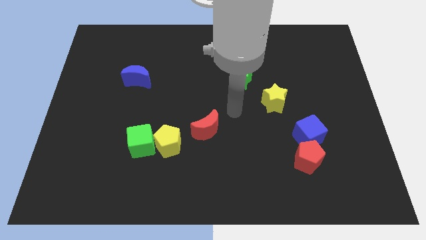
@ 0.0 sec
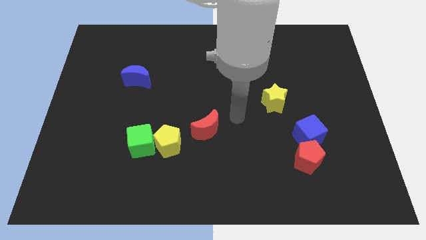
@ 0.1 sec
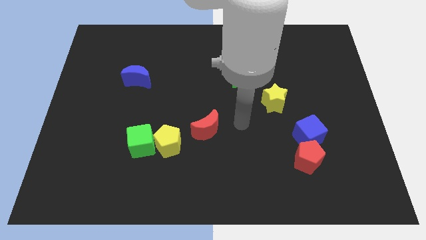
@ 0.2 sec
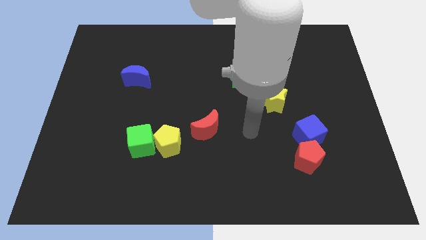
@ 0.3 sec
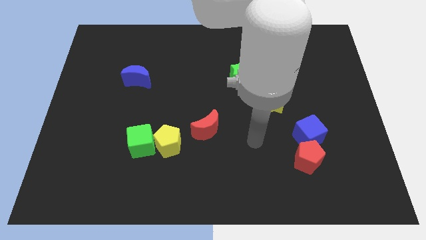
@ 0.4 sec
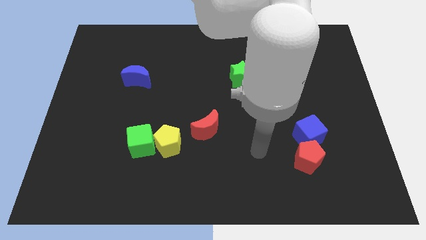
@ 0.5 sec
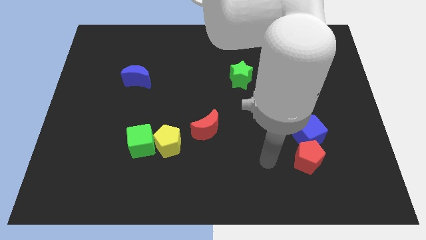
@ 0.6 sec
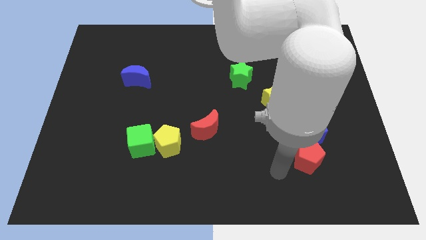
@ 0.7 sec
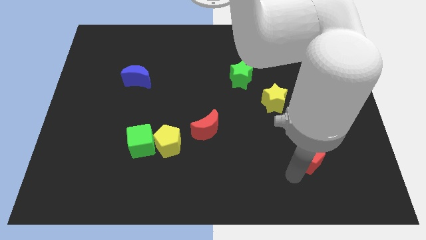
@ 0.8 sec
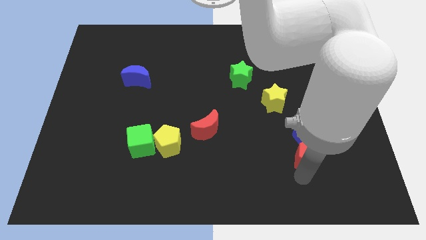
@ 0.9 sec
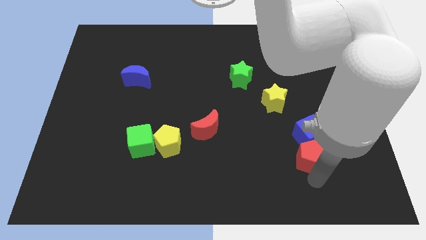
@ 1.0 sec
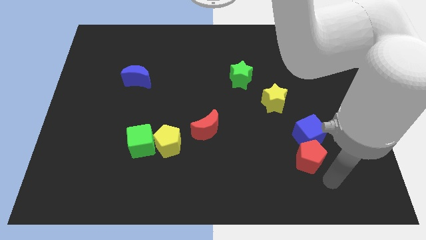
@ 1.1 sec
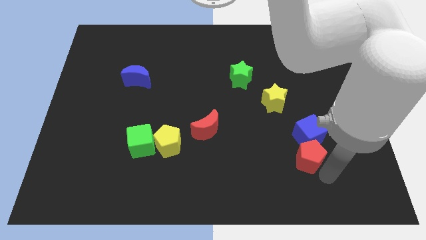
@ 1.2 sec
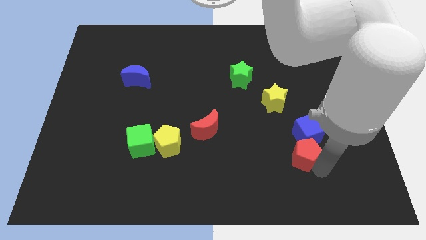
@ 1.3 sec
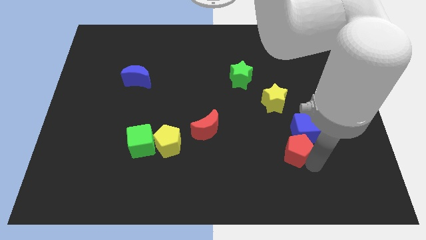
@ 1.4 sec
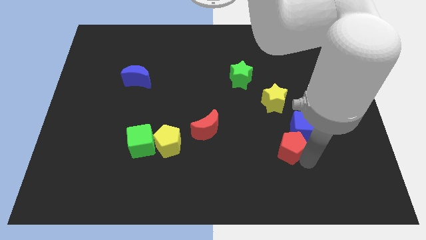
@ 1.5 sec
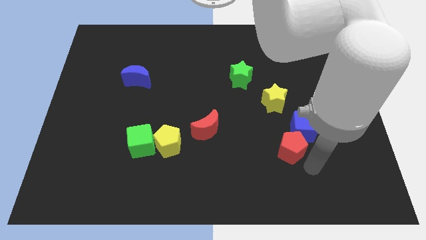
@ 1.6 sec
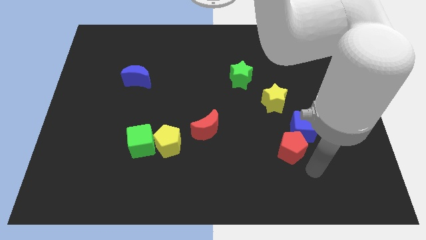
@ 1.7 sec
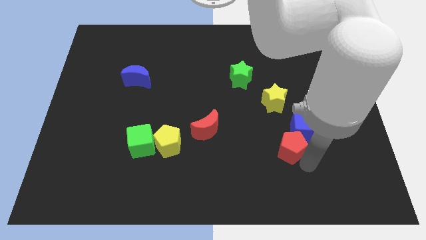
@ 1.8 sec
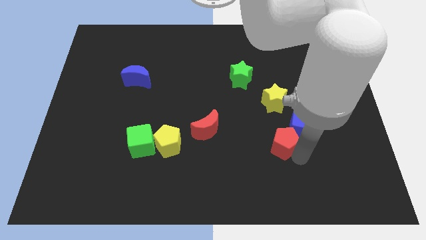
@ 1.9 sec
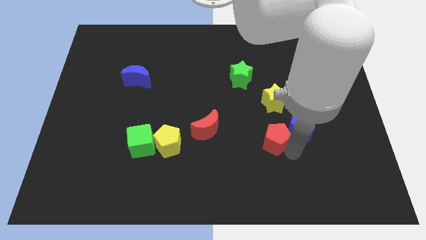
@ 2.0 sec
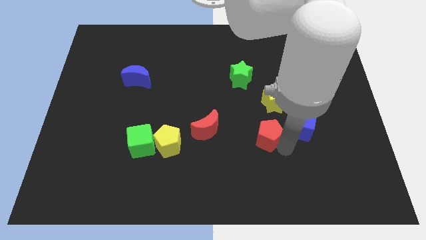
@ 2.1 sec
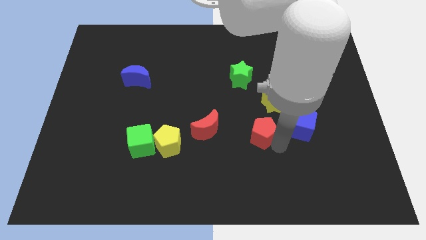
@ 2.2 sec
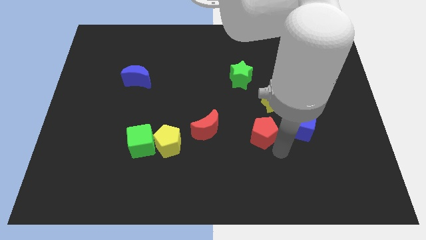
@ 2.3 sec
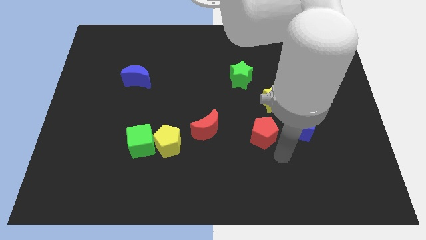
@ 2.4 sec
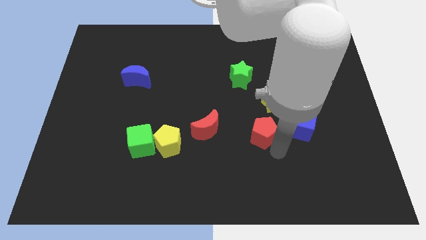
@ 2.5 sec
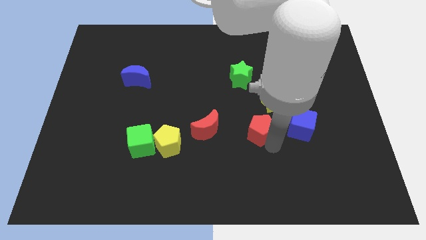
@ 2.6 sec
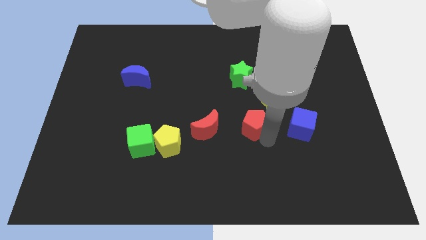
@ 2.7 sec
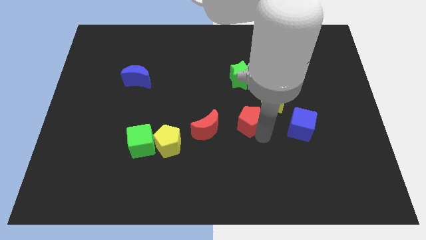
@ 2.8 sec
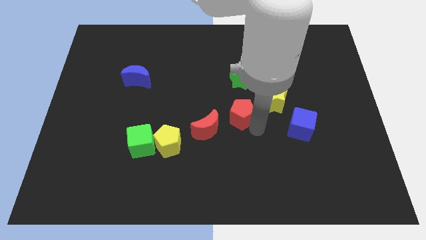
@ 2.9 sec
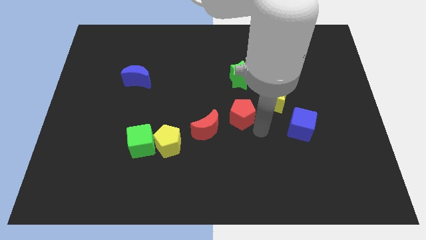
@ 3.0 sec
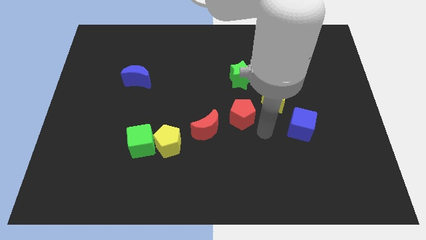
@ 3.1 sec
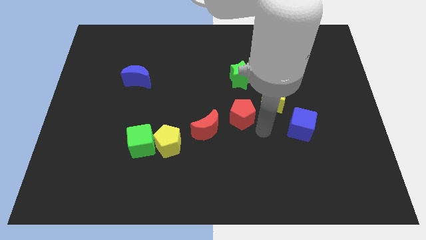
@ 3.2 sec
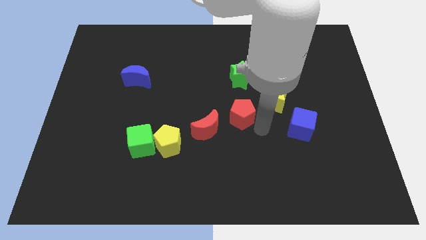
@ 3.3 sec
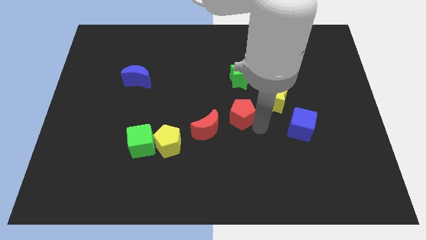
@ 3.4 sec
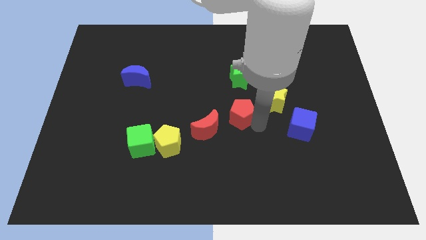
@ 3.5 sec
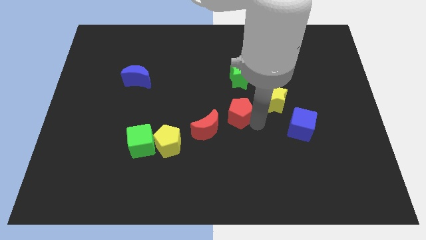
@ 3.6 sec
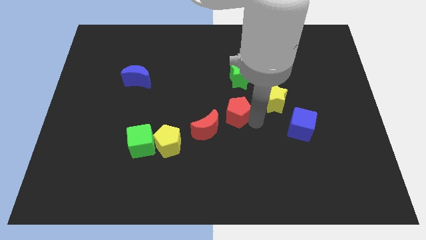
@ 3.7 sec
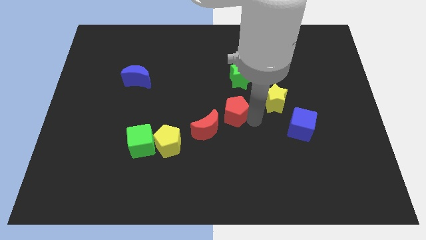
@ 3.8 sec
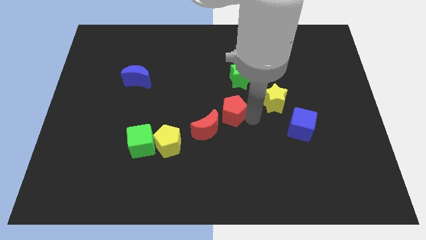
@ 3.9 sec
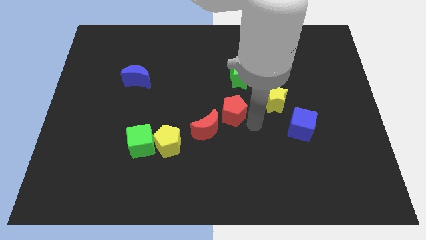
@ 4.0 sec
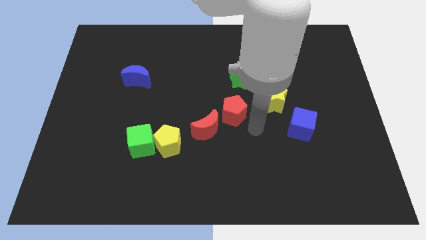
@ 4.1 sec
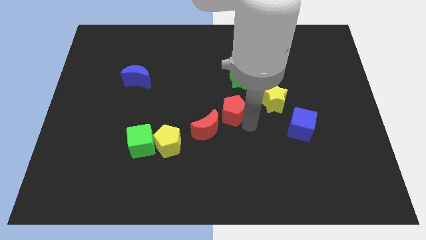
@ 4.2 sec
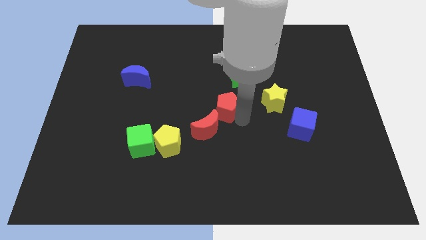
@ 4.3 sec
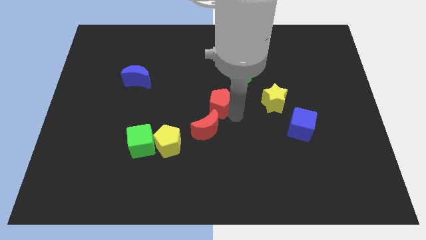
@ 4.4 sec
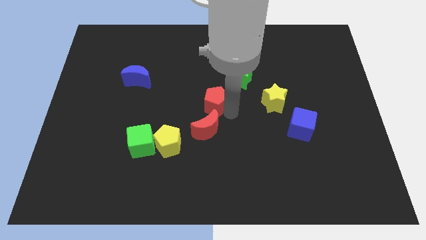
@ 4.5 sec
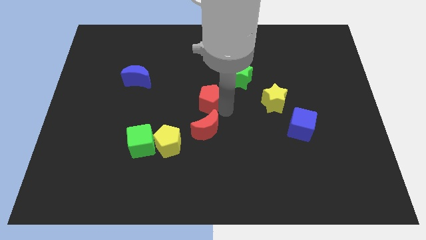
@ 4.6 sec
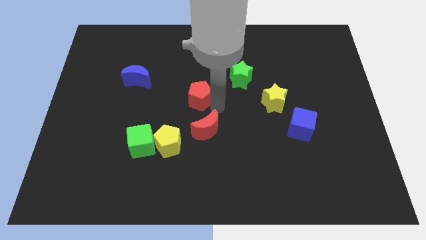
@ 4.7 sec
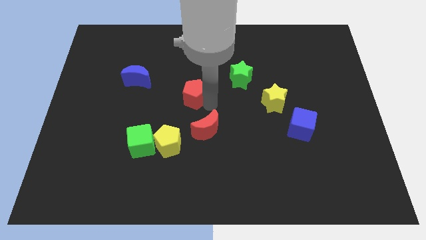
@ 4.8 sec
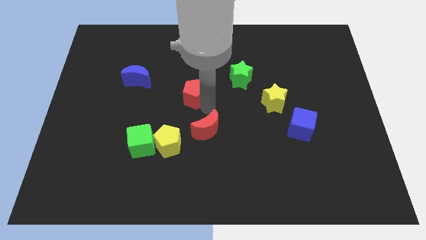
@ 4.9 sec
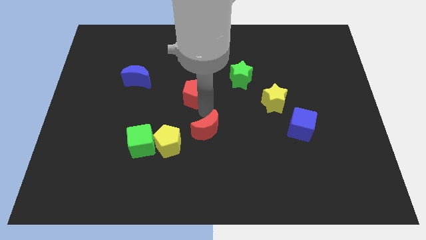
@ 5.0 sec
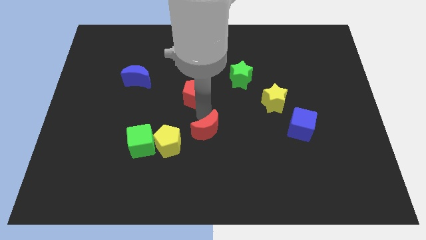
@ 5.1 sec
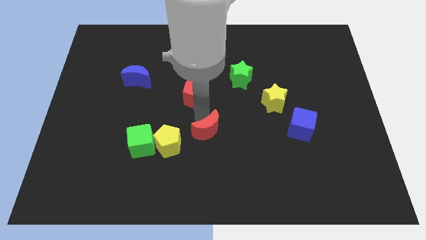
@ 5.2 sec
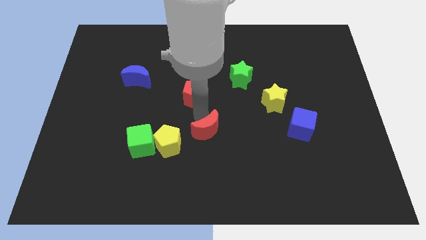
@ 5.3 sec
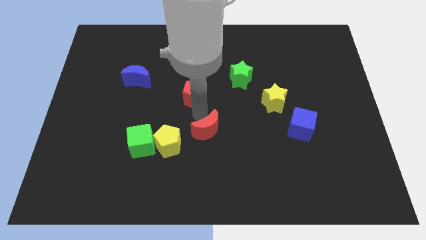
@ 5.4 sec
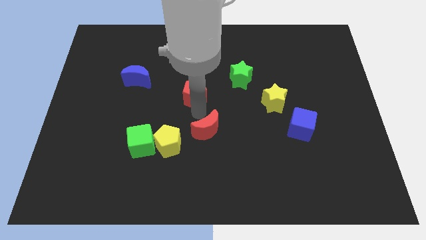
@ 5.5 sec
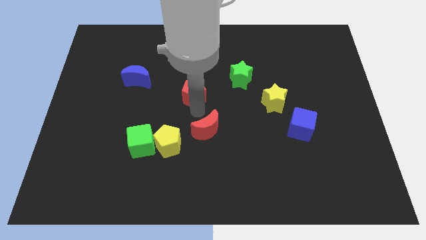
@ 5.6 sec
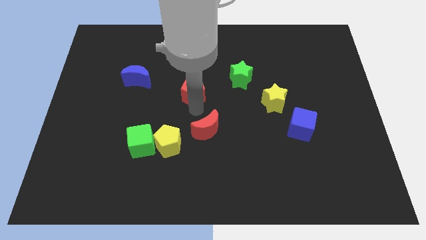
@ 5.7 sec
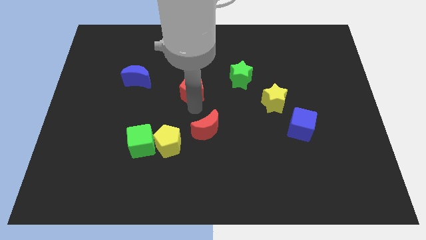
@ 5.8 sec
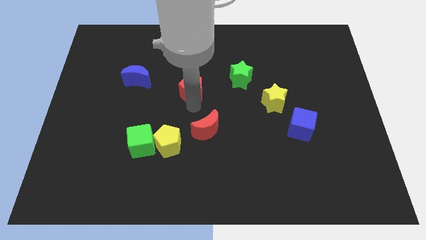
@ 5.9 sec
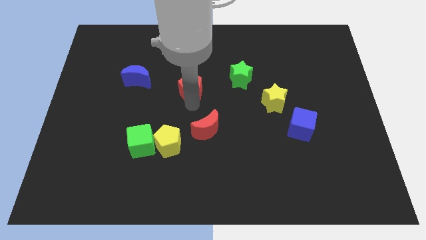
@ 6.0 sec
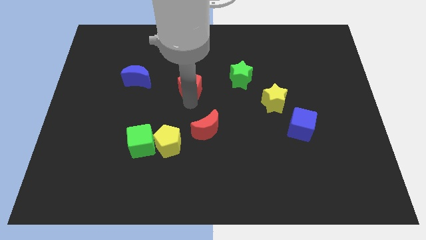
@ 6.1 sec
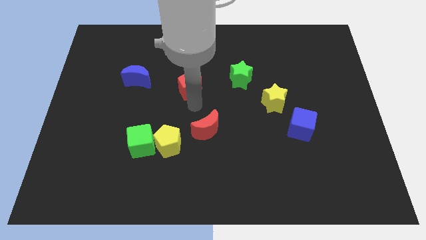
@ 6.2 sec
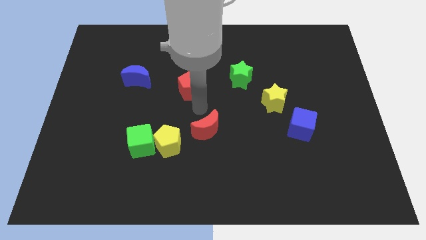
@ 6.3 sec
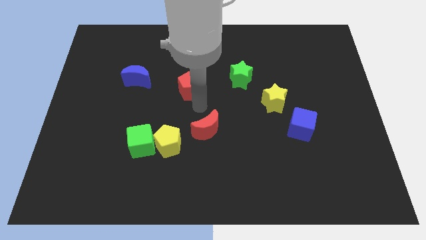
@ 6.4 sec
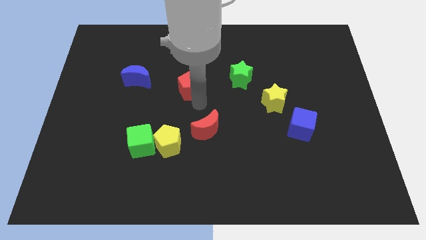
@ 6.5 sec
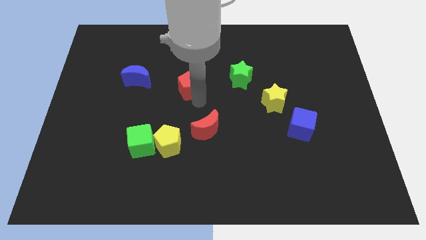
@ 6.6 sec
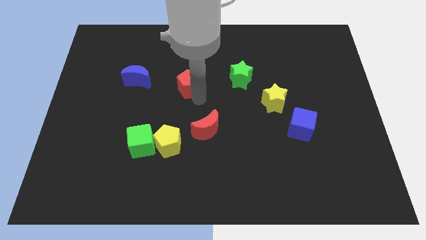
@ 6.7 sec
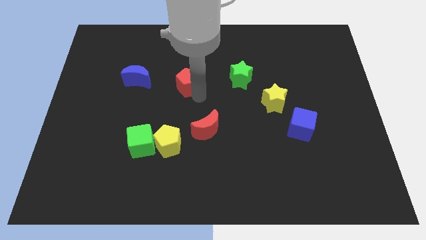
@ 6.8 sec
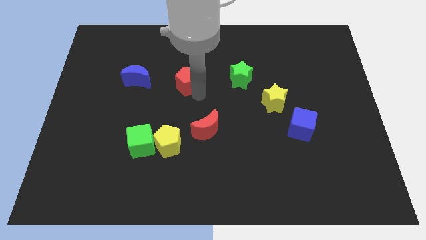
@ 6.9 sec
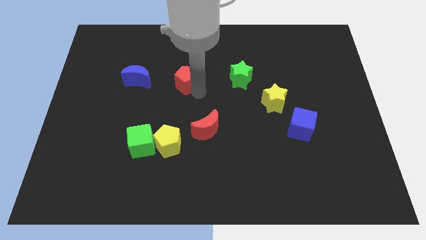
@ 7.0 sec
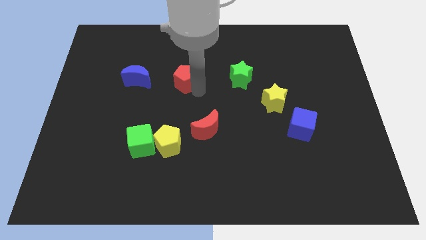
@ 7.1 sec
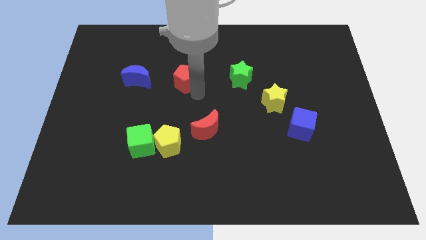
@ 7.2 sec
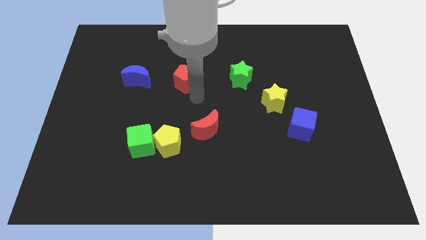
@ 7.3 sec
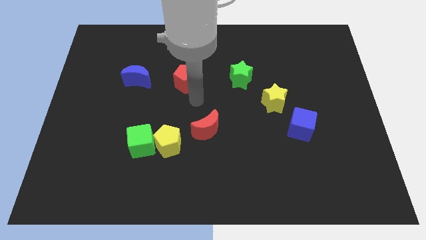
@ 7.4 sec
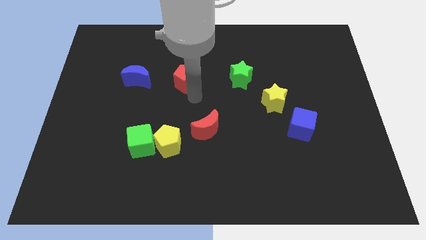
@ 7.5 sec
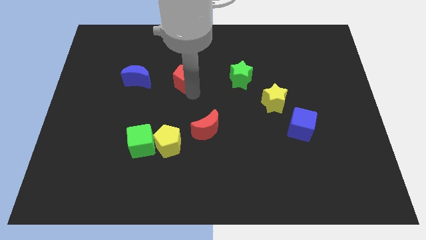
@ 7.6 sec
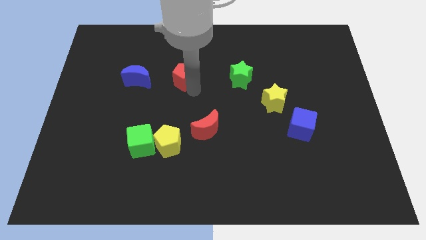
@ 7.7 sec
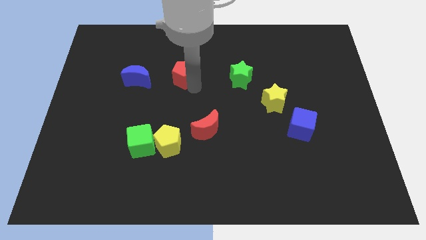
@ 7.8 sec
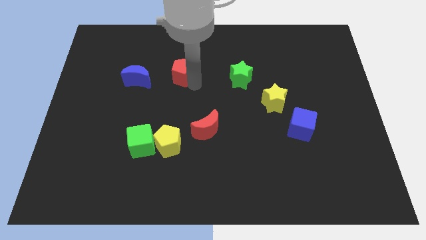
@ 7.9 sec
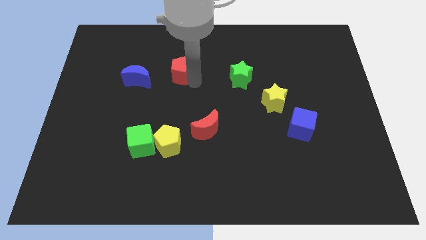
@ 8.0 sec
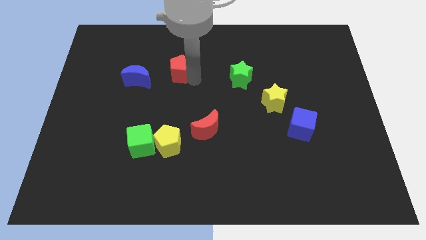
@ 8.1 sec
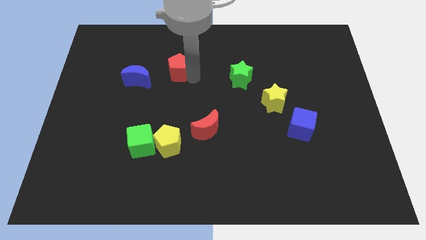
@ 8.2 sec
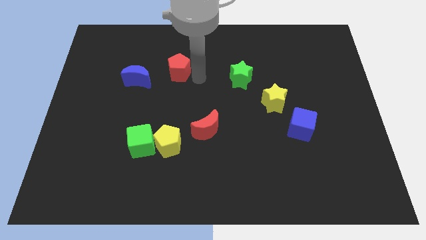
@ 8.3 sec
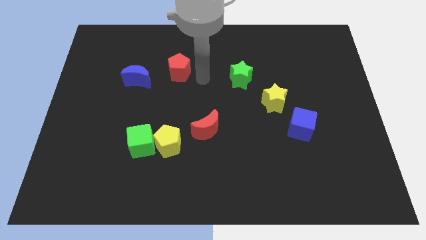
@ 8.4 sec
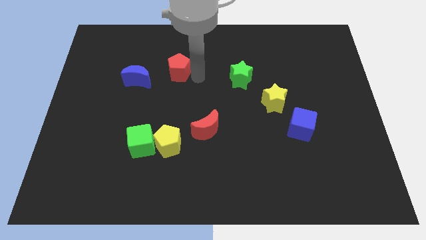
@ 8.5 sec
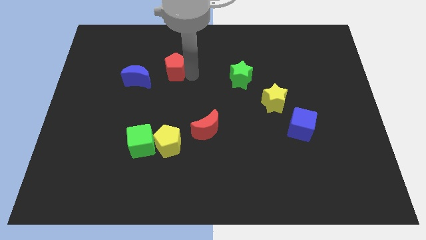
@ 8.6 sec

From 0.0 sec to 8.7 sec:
move the red pentagon to the top right of the blue moon
